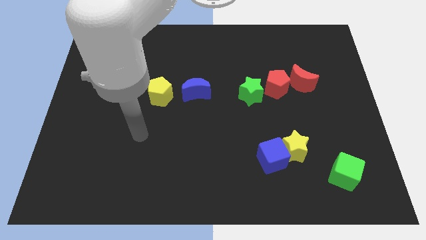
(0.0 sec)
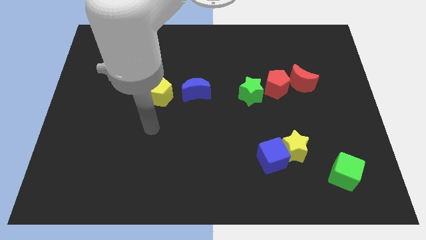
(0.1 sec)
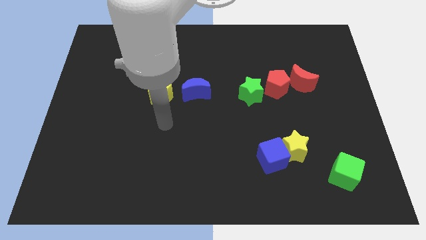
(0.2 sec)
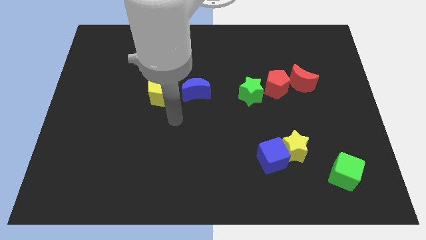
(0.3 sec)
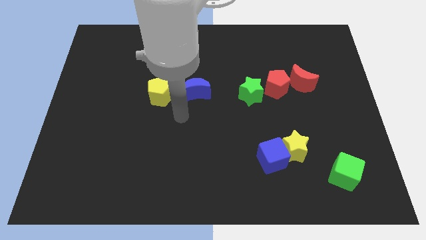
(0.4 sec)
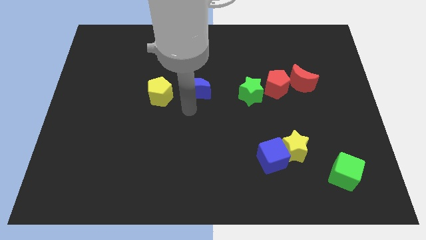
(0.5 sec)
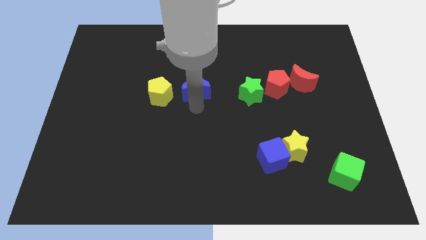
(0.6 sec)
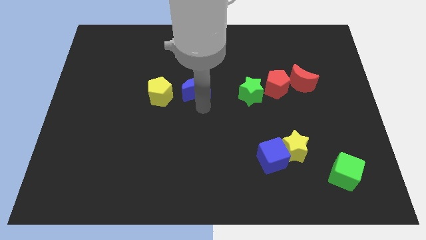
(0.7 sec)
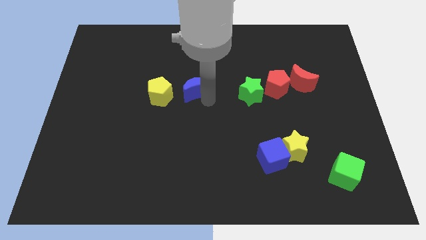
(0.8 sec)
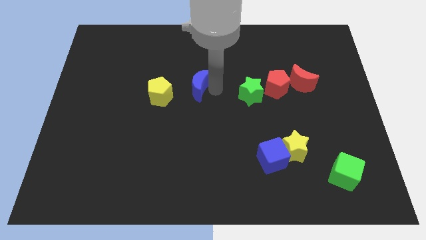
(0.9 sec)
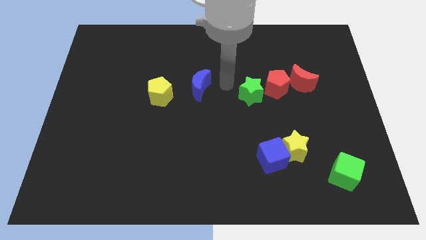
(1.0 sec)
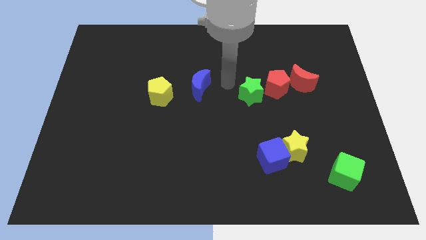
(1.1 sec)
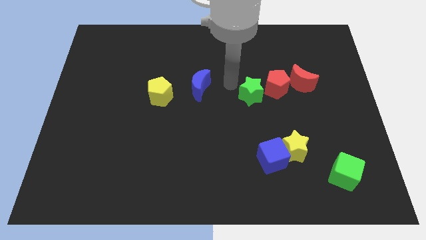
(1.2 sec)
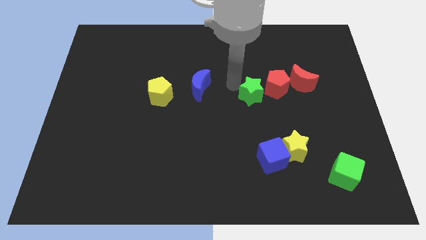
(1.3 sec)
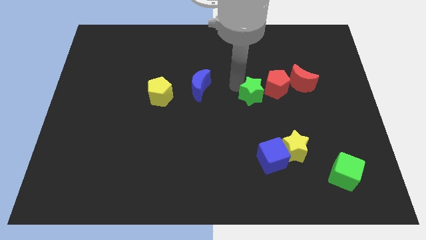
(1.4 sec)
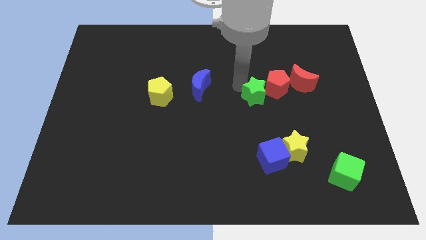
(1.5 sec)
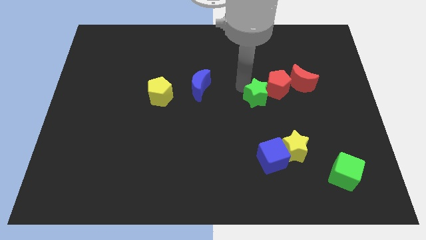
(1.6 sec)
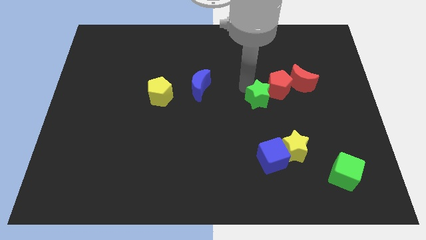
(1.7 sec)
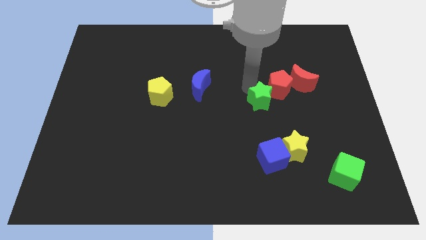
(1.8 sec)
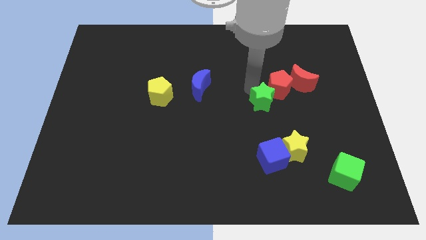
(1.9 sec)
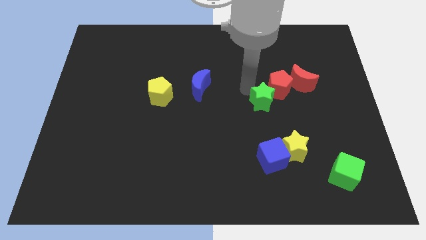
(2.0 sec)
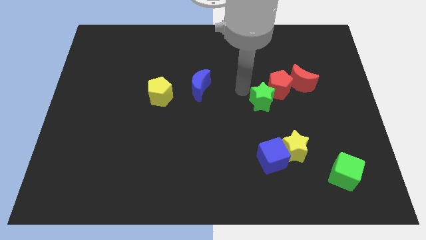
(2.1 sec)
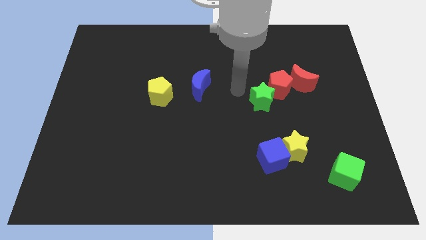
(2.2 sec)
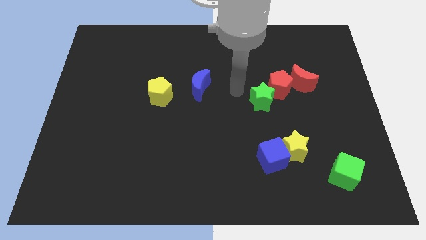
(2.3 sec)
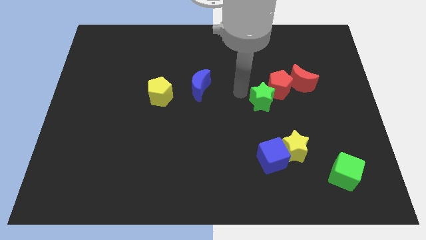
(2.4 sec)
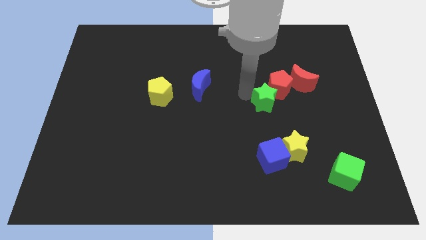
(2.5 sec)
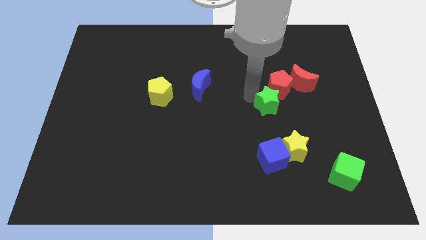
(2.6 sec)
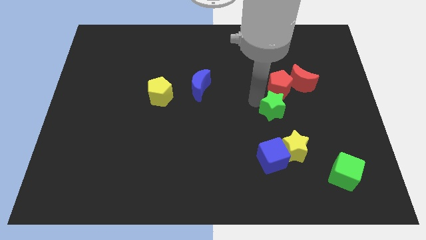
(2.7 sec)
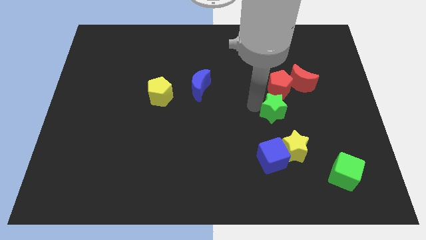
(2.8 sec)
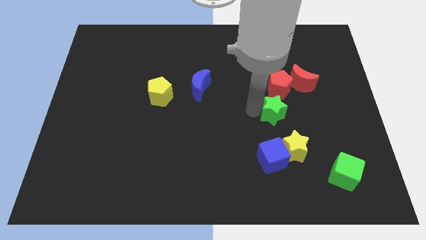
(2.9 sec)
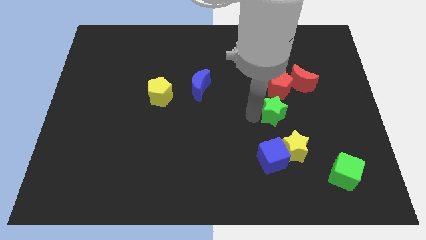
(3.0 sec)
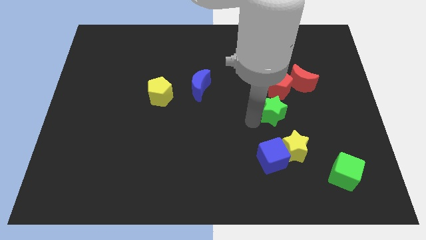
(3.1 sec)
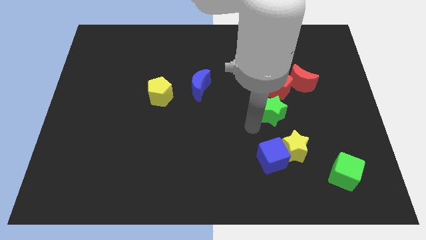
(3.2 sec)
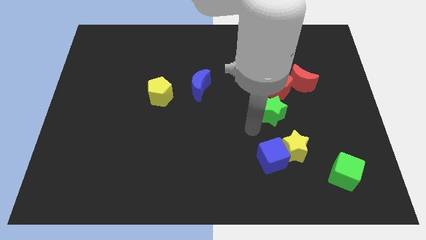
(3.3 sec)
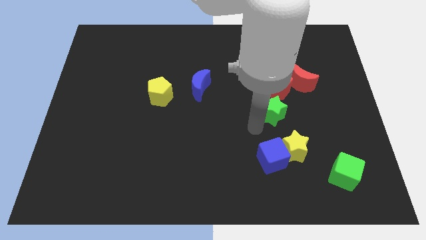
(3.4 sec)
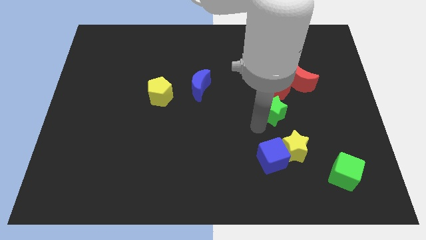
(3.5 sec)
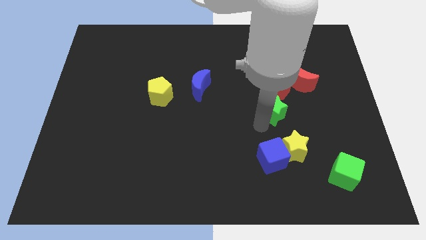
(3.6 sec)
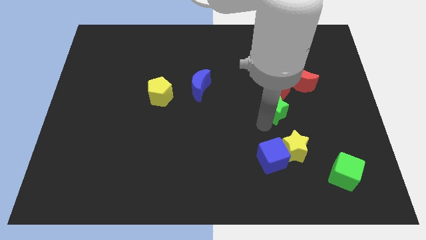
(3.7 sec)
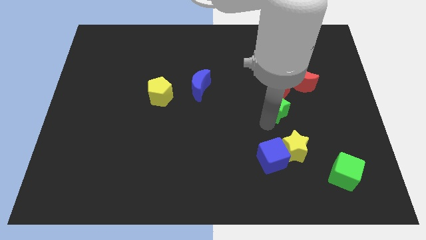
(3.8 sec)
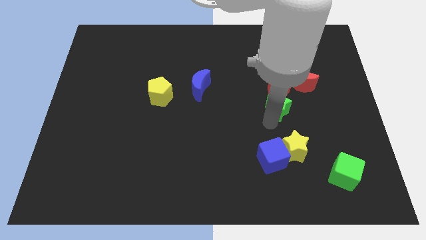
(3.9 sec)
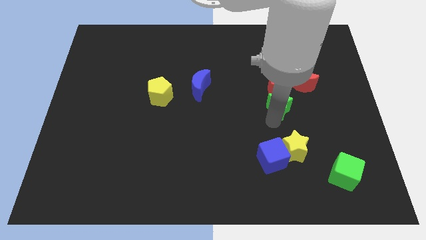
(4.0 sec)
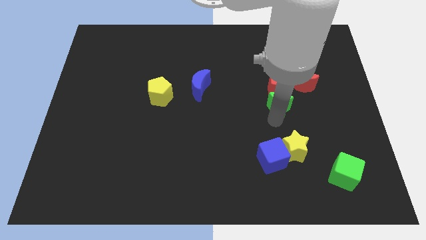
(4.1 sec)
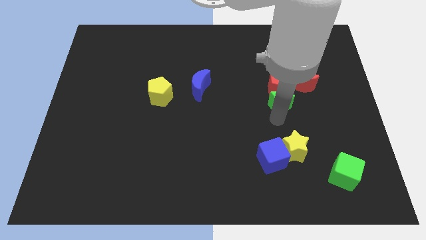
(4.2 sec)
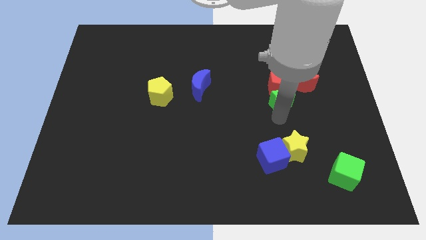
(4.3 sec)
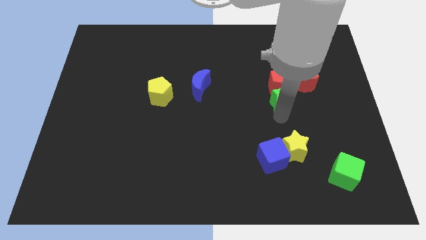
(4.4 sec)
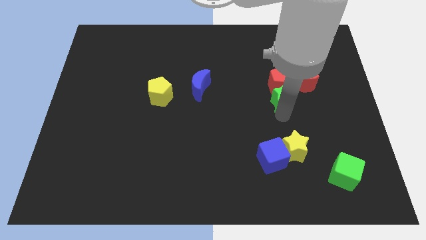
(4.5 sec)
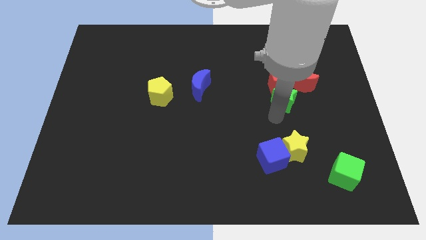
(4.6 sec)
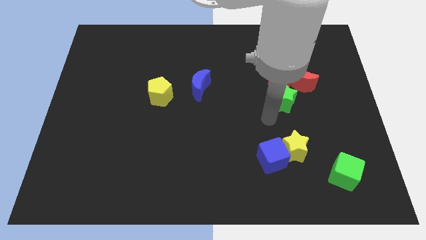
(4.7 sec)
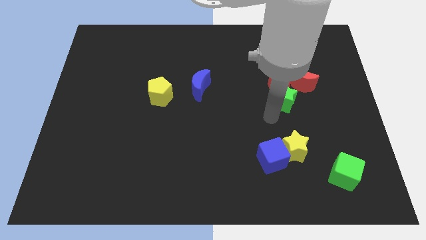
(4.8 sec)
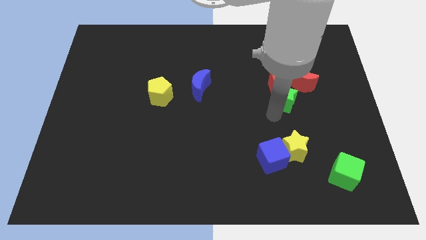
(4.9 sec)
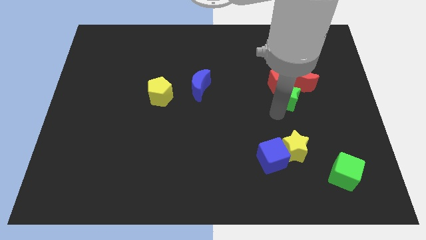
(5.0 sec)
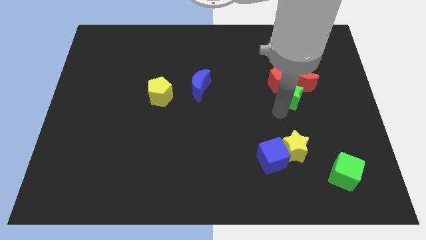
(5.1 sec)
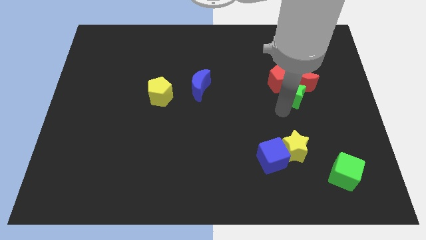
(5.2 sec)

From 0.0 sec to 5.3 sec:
slide the green star close to the red moon

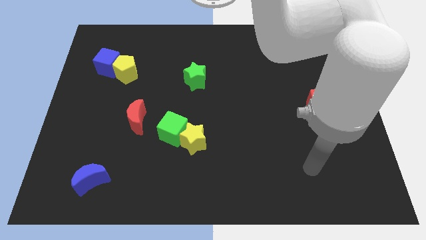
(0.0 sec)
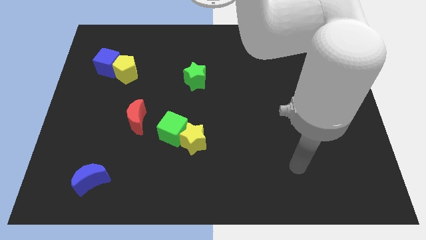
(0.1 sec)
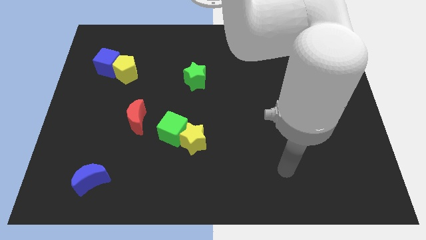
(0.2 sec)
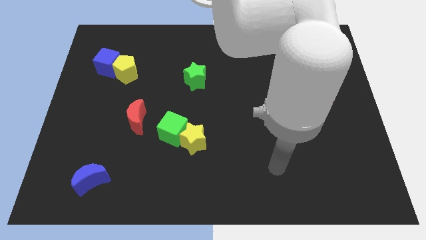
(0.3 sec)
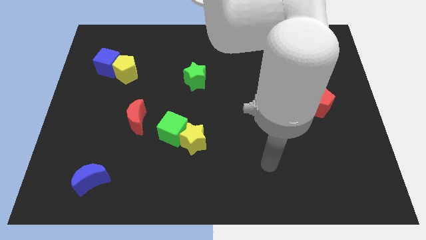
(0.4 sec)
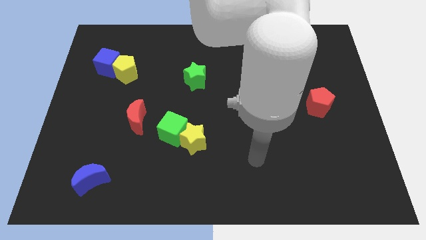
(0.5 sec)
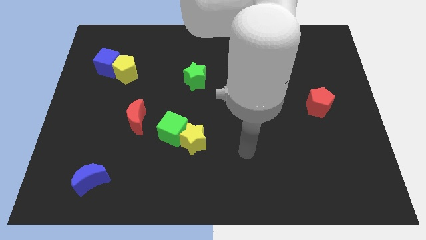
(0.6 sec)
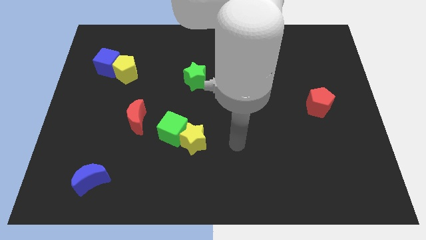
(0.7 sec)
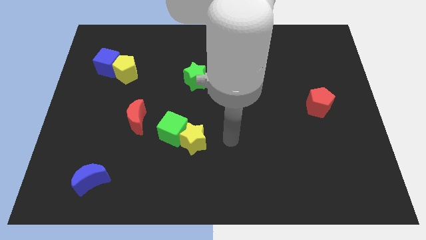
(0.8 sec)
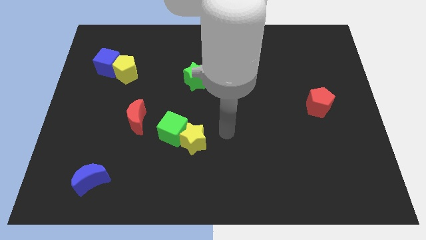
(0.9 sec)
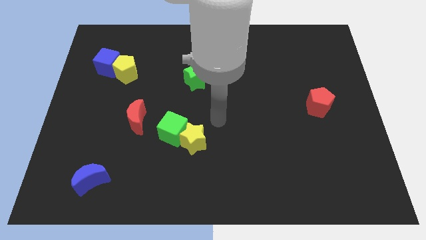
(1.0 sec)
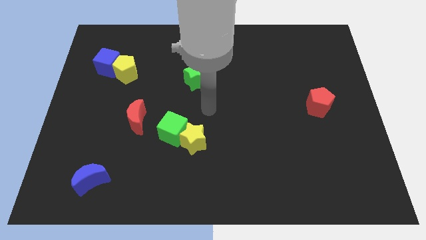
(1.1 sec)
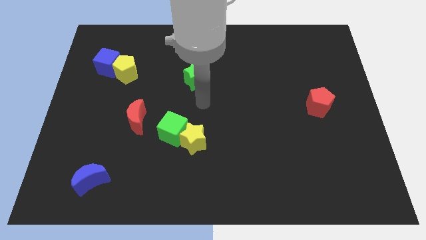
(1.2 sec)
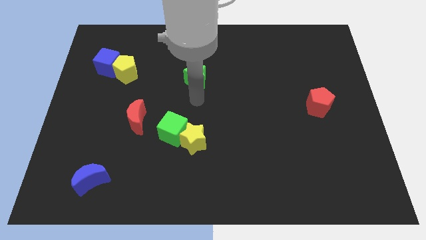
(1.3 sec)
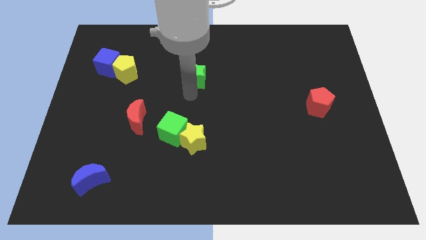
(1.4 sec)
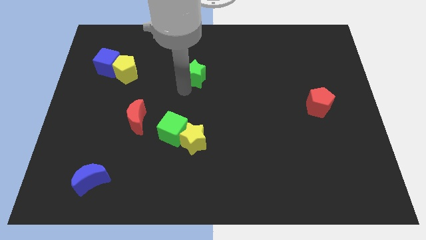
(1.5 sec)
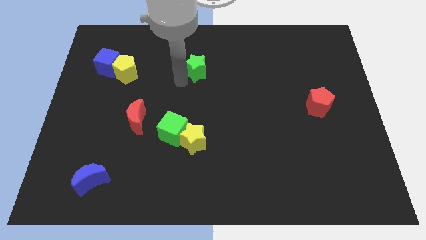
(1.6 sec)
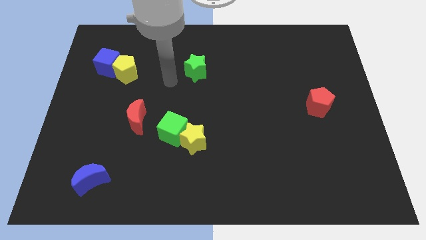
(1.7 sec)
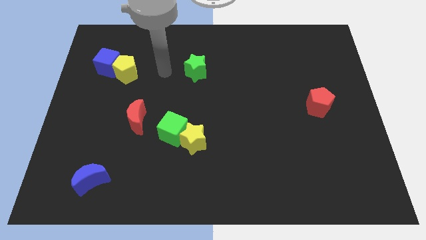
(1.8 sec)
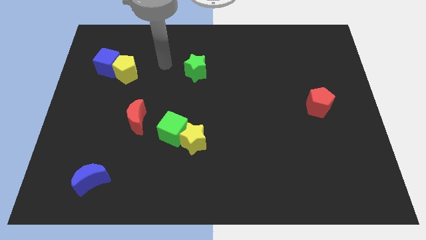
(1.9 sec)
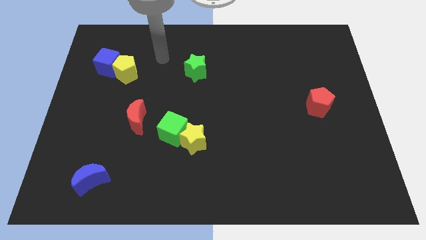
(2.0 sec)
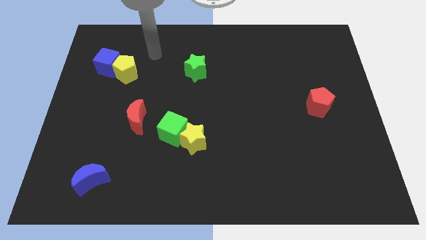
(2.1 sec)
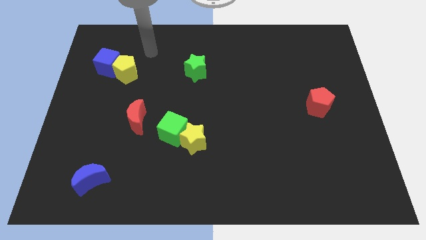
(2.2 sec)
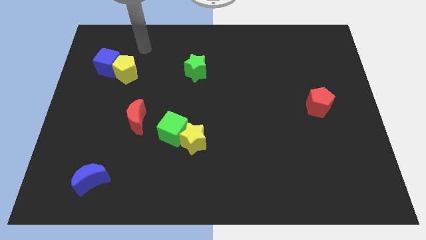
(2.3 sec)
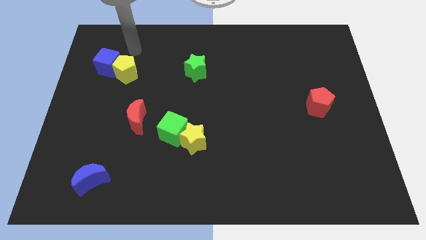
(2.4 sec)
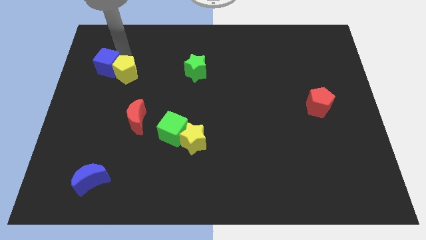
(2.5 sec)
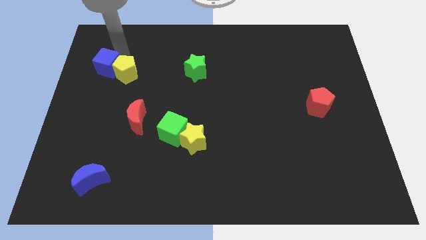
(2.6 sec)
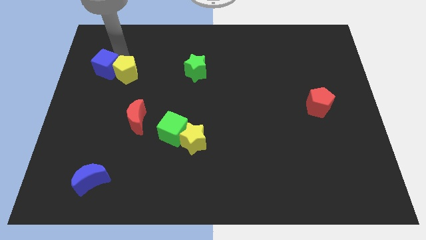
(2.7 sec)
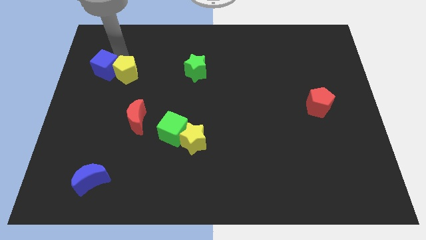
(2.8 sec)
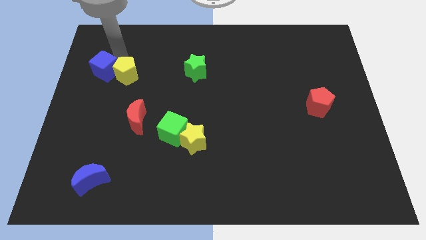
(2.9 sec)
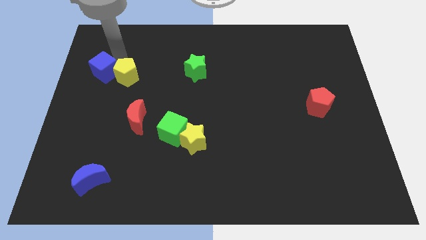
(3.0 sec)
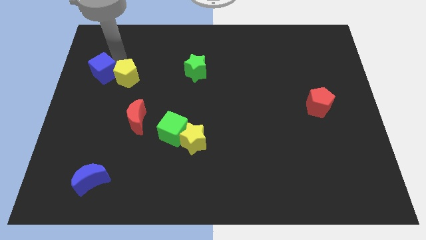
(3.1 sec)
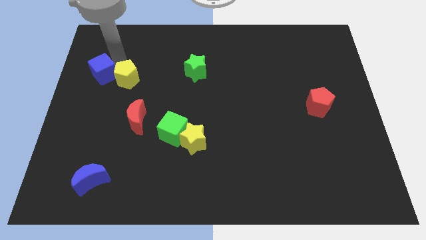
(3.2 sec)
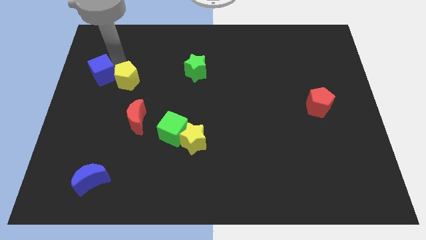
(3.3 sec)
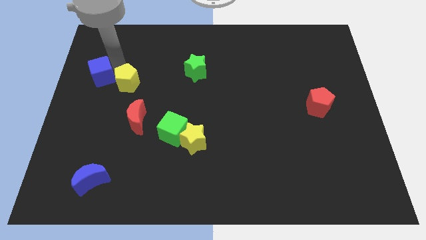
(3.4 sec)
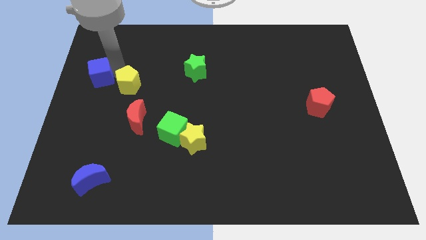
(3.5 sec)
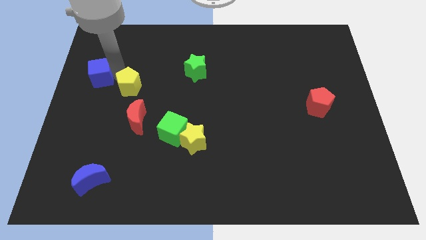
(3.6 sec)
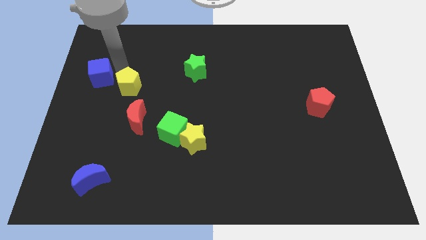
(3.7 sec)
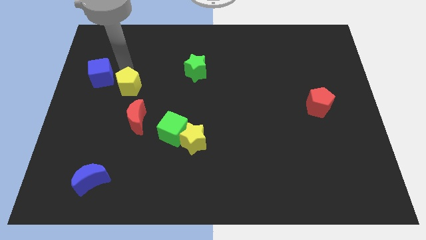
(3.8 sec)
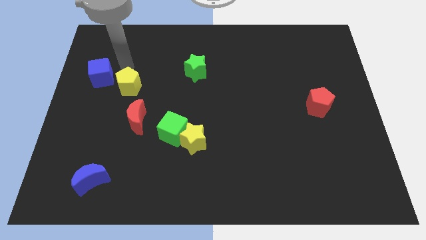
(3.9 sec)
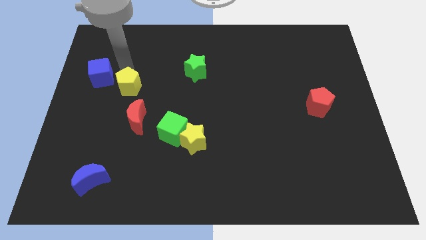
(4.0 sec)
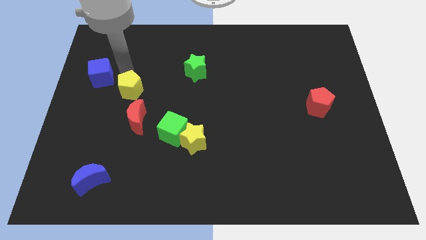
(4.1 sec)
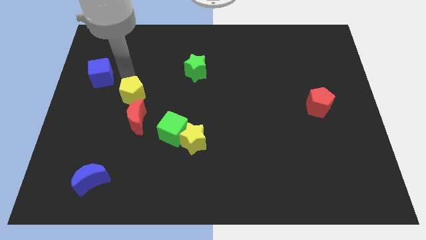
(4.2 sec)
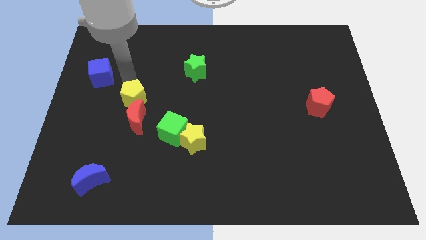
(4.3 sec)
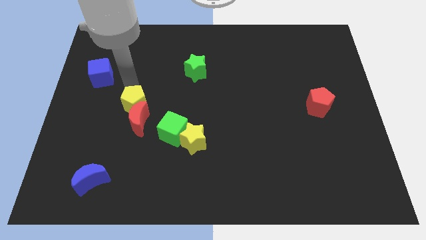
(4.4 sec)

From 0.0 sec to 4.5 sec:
put the yellow pentagon next to the red moon
